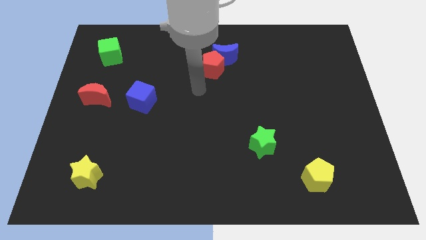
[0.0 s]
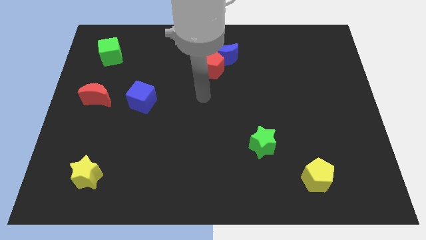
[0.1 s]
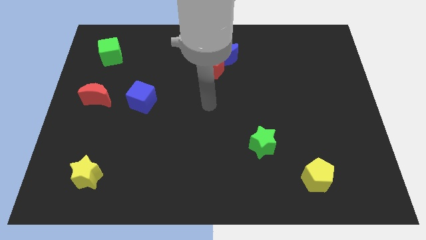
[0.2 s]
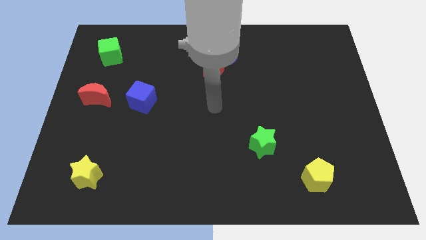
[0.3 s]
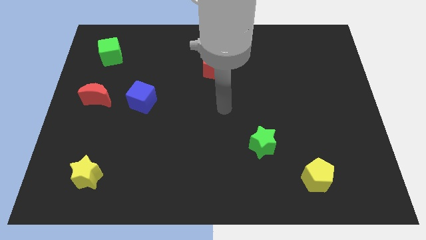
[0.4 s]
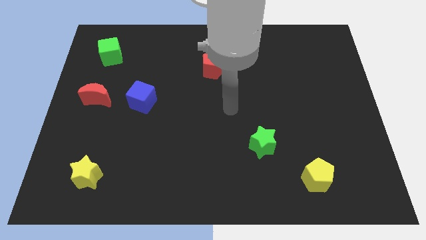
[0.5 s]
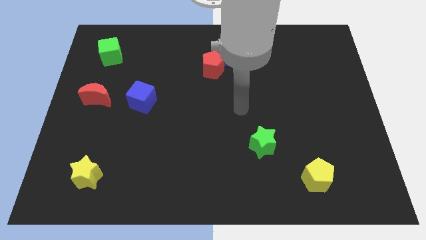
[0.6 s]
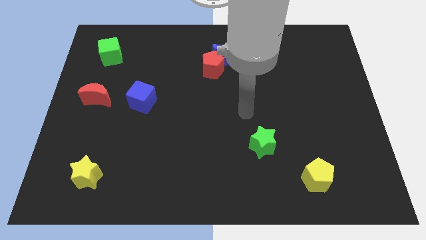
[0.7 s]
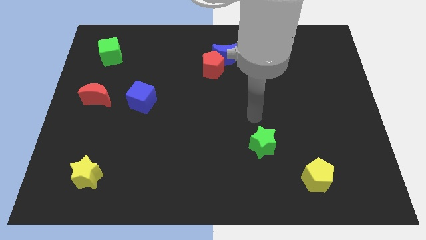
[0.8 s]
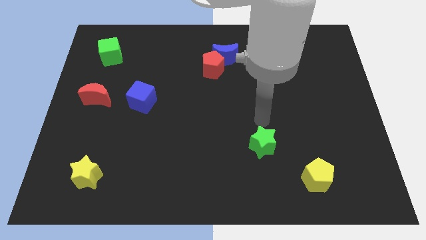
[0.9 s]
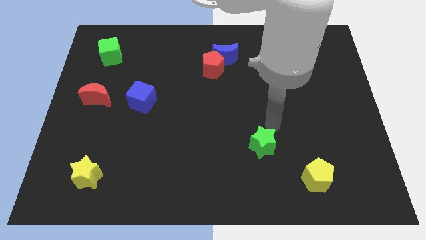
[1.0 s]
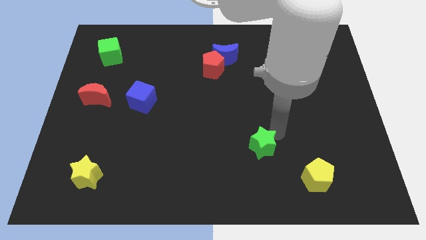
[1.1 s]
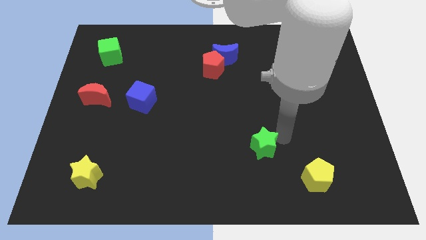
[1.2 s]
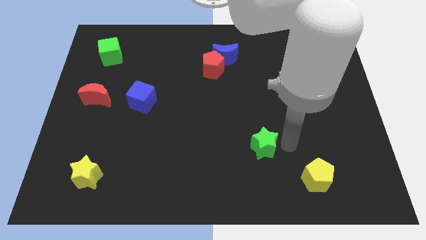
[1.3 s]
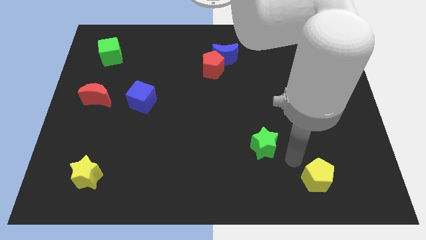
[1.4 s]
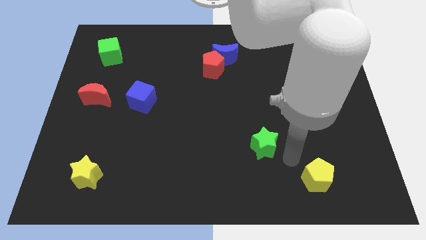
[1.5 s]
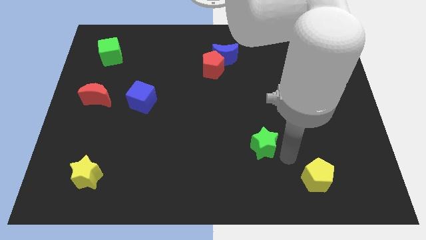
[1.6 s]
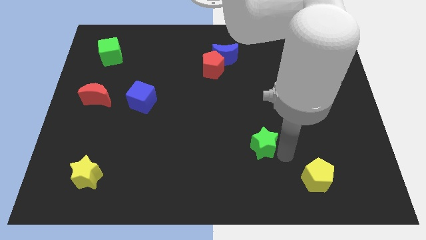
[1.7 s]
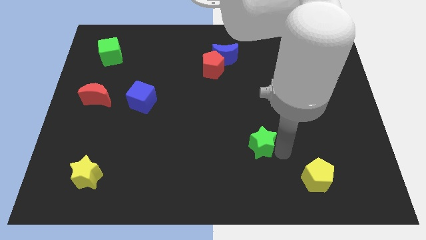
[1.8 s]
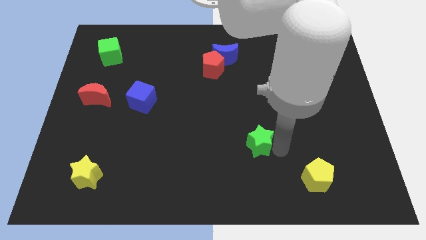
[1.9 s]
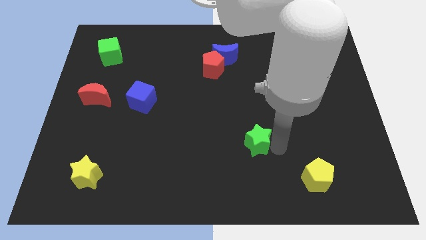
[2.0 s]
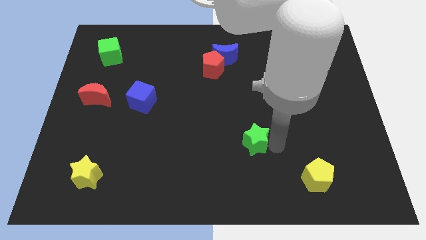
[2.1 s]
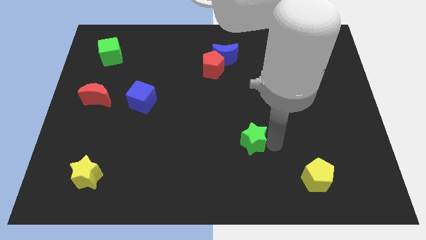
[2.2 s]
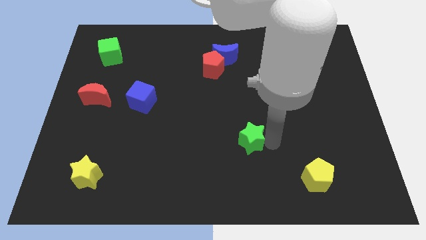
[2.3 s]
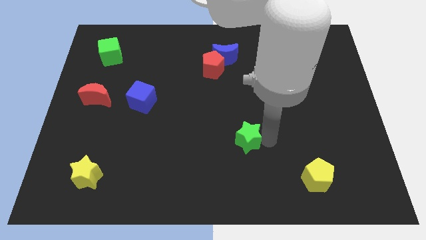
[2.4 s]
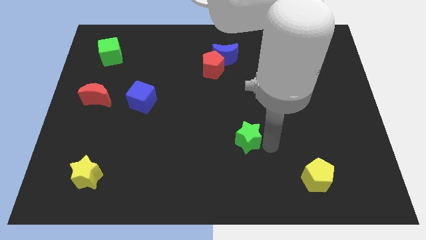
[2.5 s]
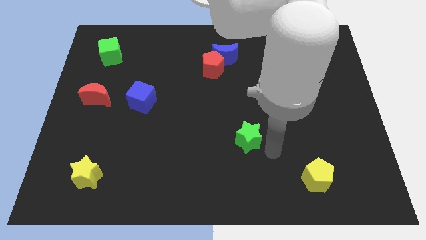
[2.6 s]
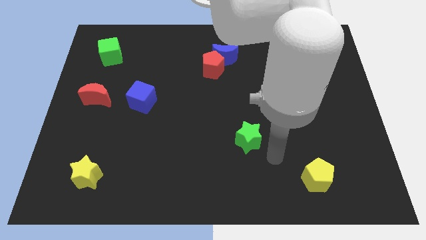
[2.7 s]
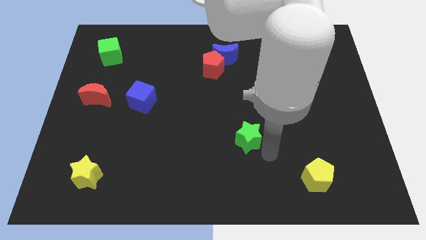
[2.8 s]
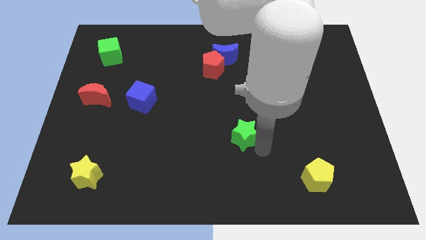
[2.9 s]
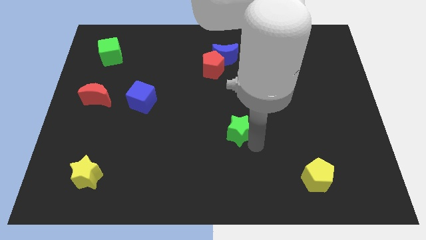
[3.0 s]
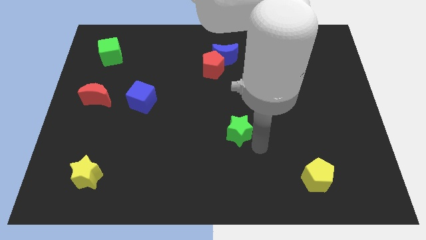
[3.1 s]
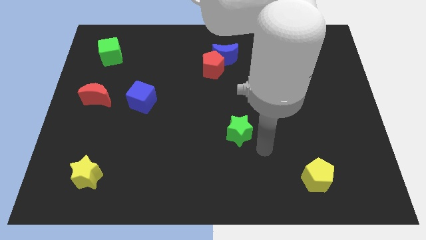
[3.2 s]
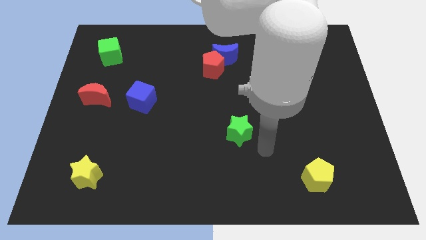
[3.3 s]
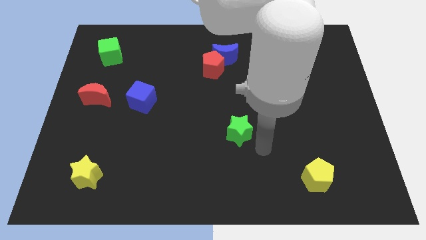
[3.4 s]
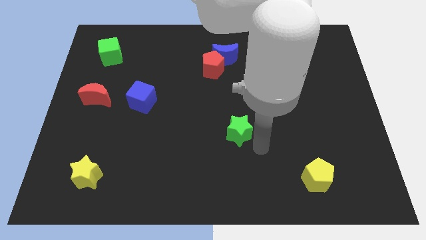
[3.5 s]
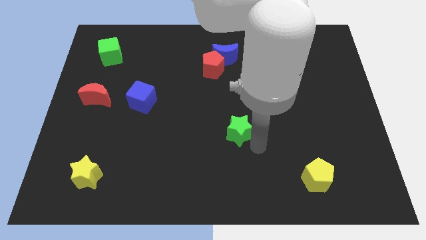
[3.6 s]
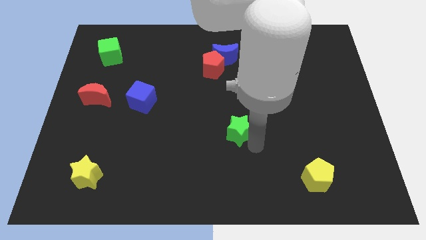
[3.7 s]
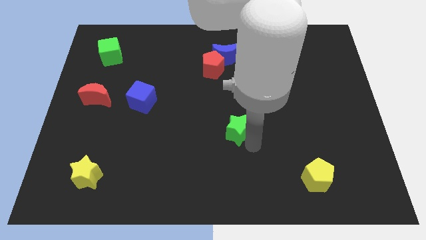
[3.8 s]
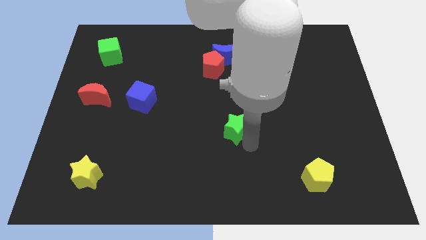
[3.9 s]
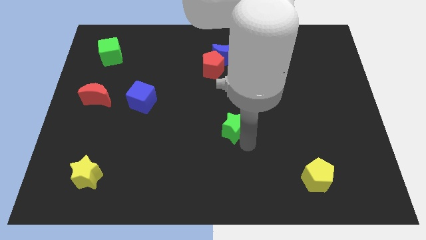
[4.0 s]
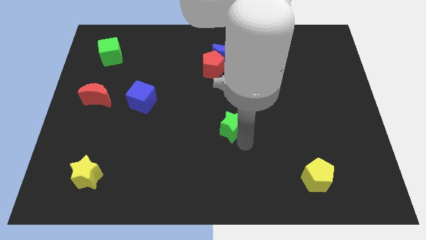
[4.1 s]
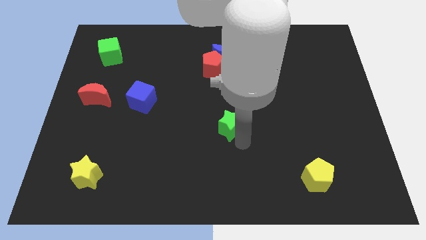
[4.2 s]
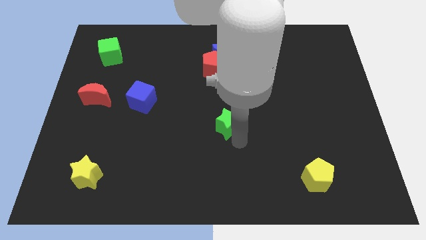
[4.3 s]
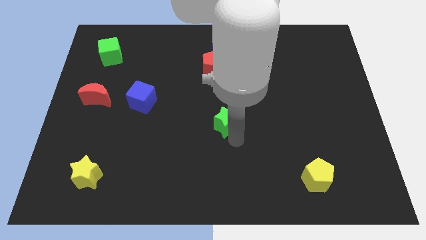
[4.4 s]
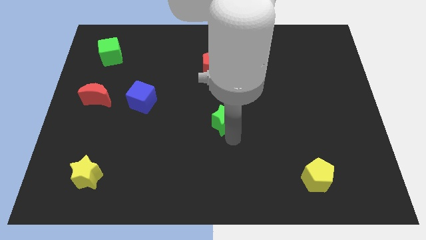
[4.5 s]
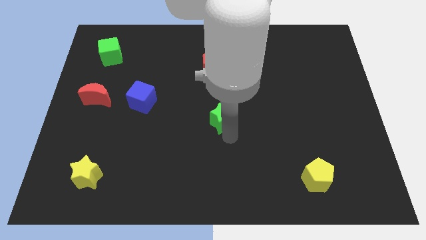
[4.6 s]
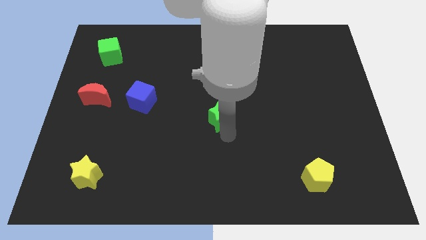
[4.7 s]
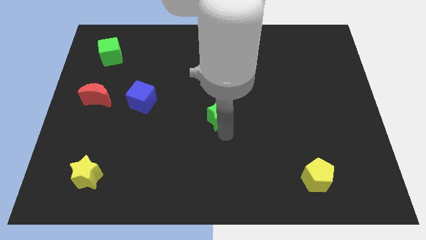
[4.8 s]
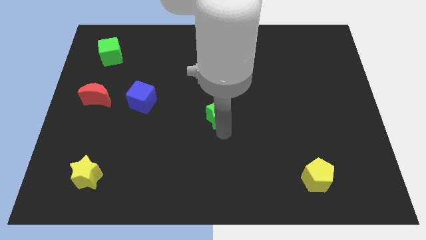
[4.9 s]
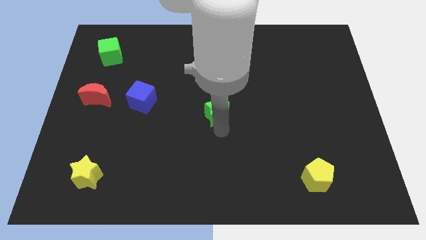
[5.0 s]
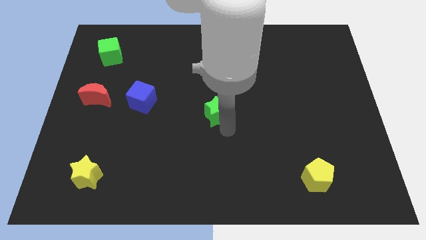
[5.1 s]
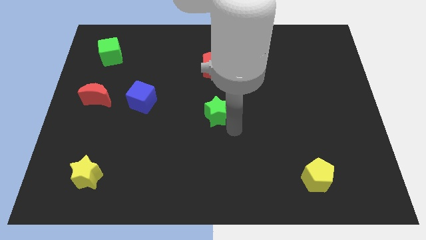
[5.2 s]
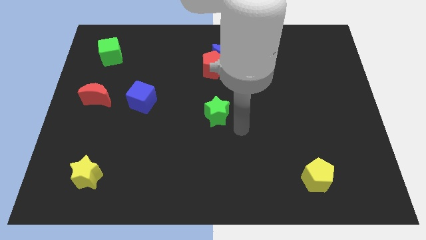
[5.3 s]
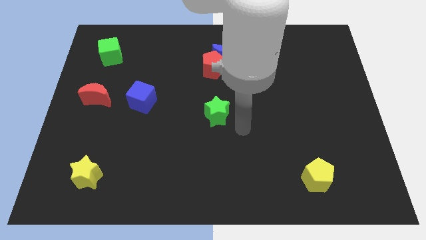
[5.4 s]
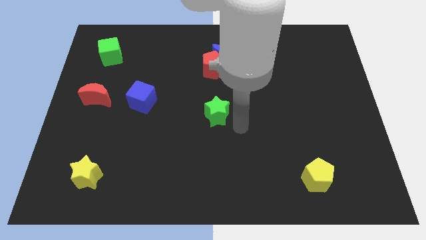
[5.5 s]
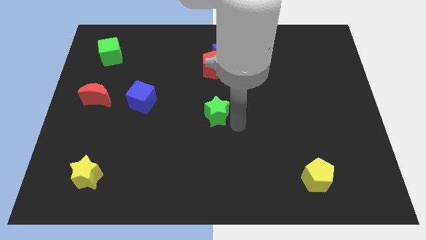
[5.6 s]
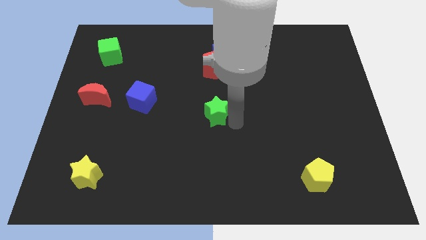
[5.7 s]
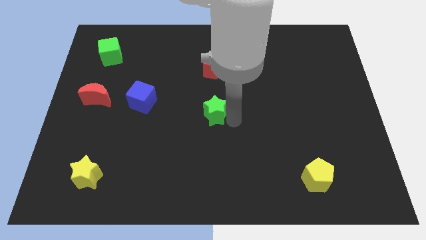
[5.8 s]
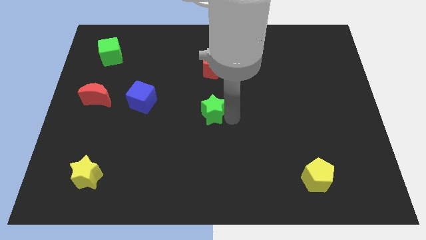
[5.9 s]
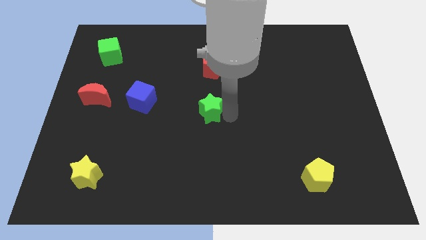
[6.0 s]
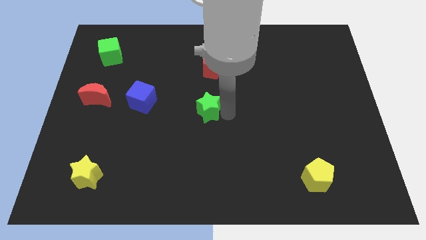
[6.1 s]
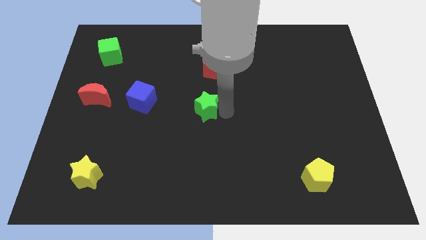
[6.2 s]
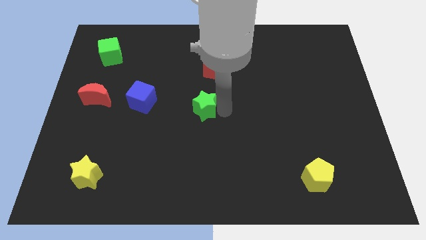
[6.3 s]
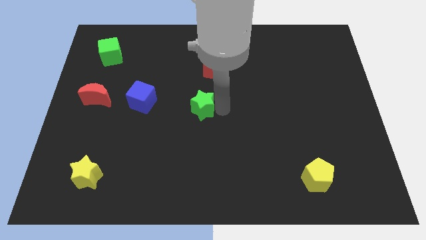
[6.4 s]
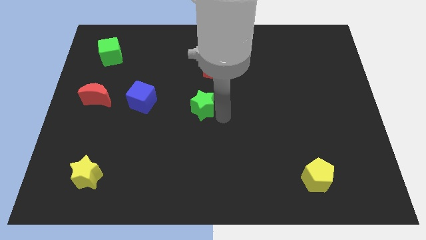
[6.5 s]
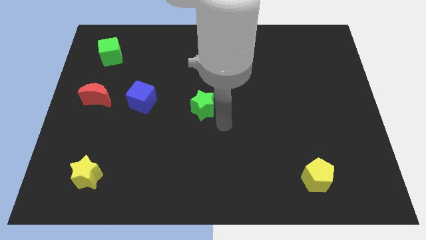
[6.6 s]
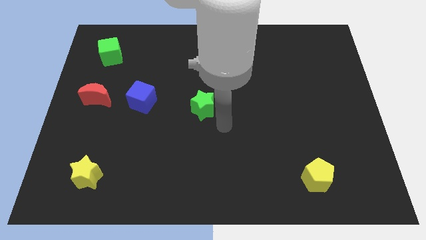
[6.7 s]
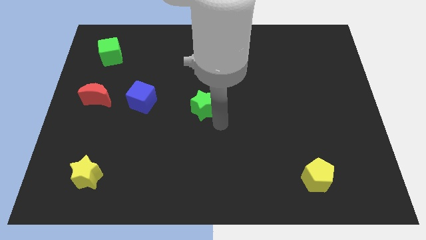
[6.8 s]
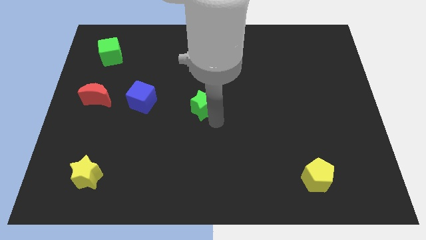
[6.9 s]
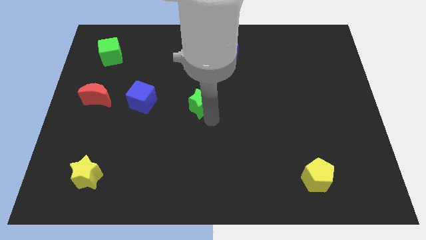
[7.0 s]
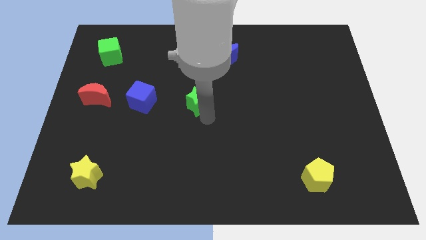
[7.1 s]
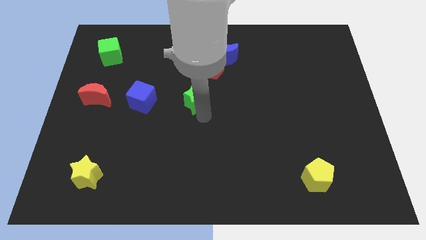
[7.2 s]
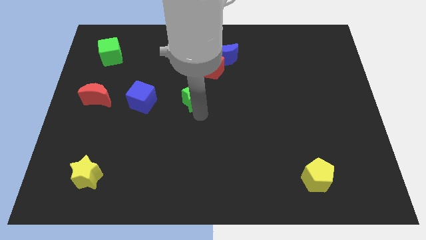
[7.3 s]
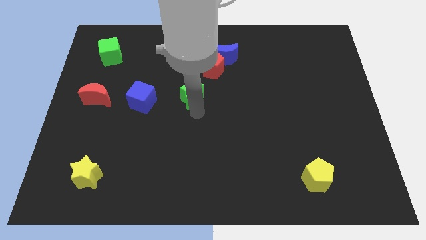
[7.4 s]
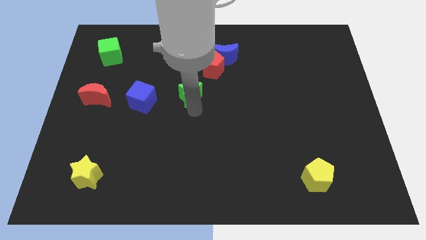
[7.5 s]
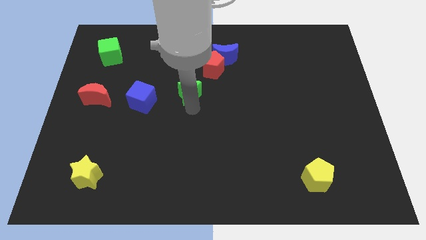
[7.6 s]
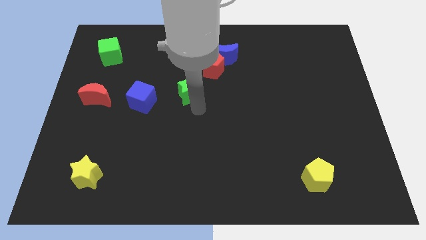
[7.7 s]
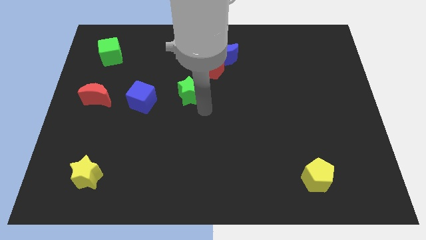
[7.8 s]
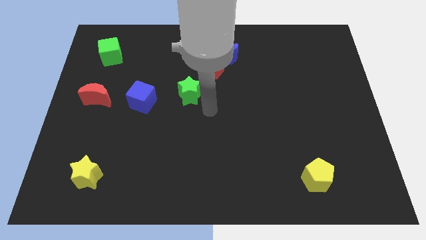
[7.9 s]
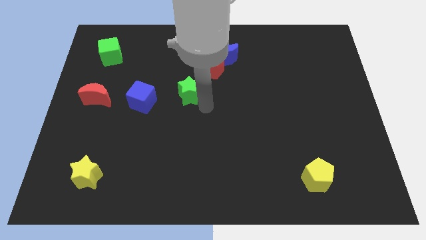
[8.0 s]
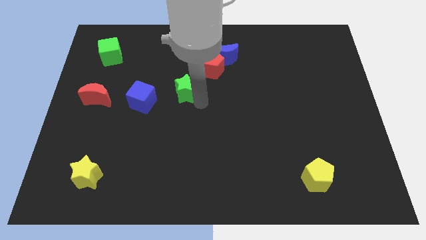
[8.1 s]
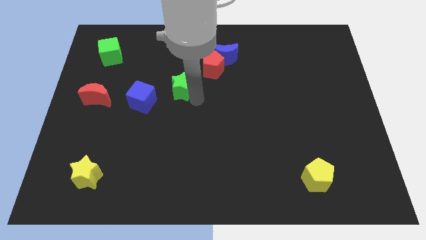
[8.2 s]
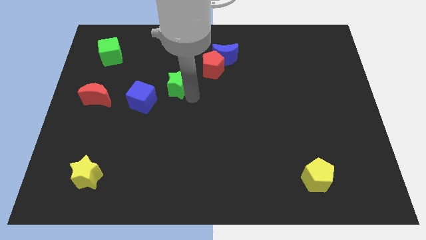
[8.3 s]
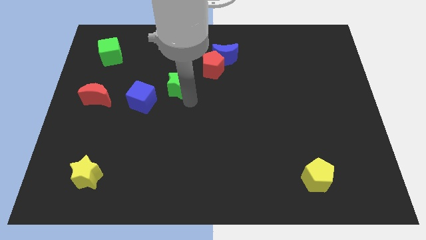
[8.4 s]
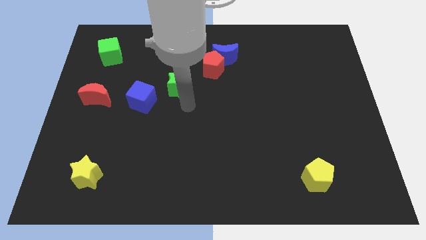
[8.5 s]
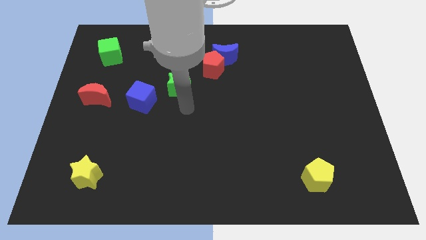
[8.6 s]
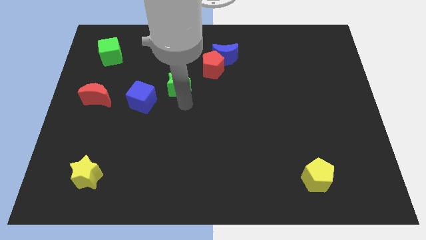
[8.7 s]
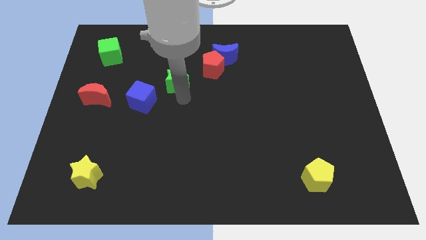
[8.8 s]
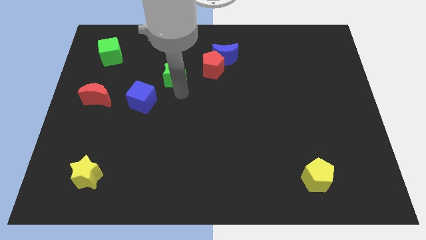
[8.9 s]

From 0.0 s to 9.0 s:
move the green star left of the red pentagon
